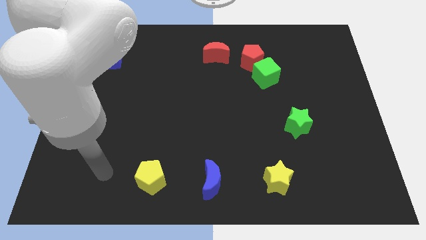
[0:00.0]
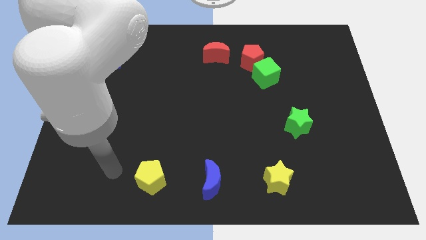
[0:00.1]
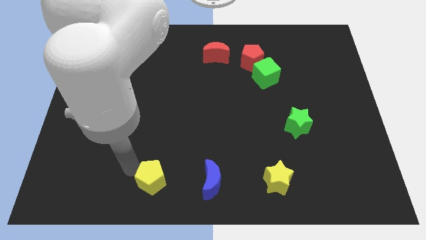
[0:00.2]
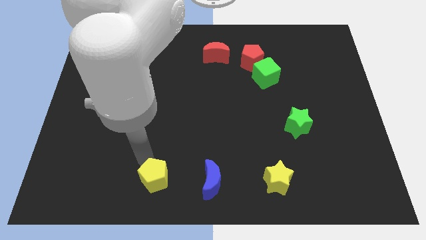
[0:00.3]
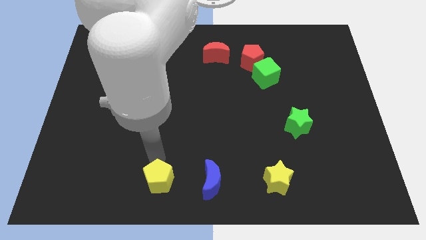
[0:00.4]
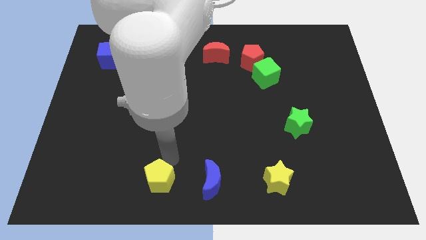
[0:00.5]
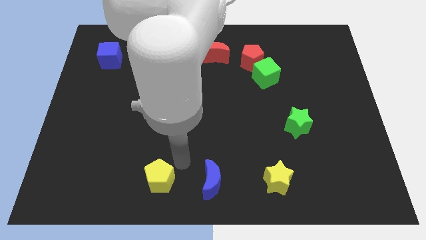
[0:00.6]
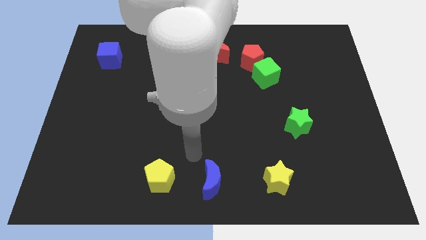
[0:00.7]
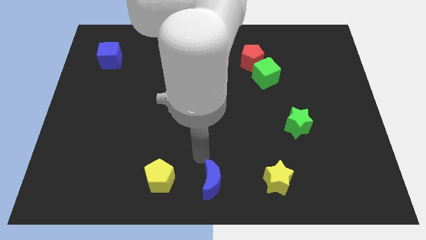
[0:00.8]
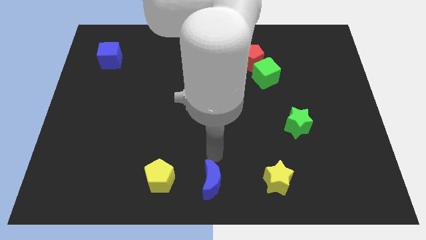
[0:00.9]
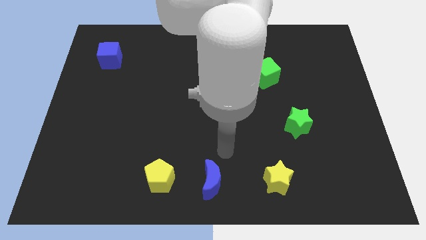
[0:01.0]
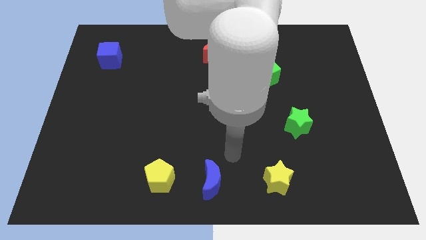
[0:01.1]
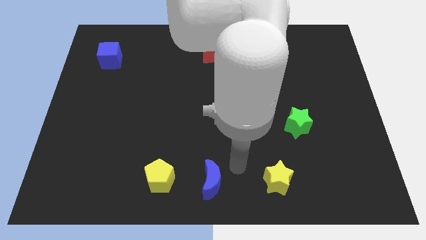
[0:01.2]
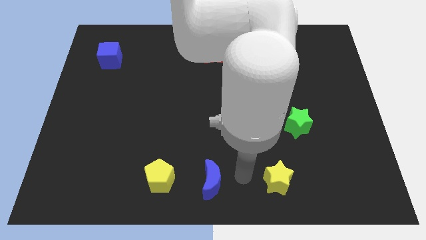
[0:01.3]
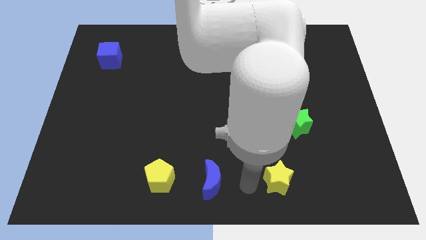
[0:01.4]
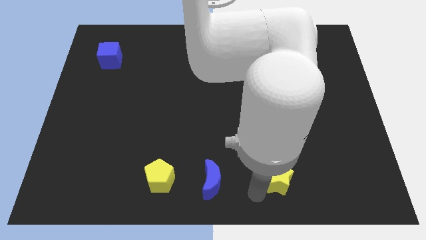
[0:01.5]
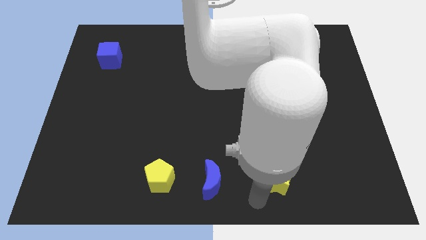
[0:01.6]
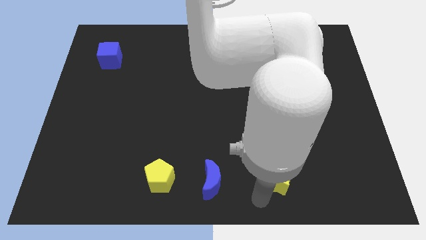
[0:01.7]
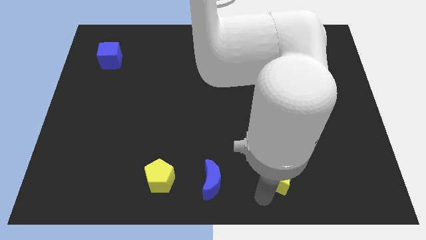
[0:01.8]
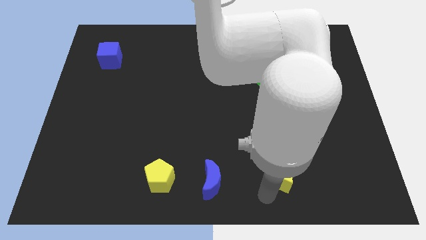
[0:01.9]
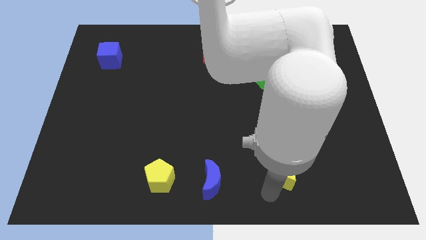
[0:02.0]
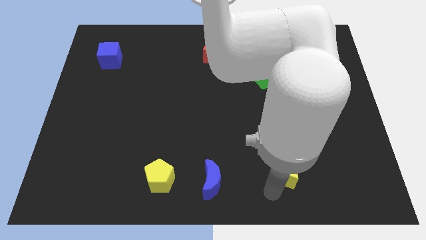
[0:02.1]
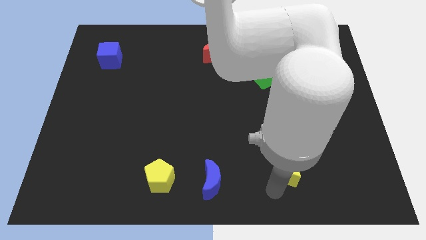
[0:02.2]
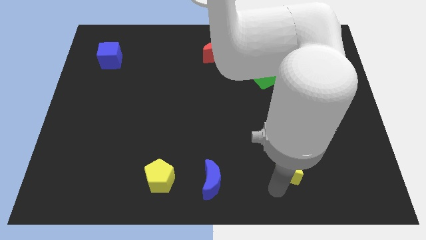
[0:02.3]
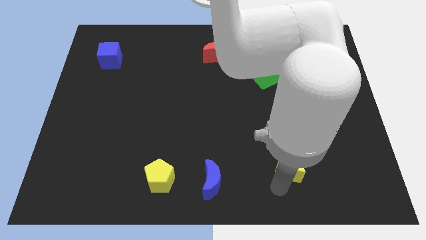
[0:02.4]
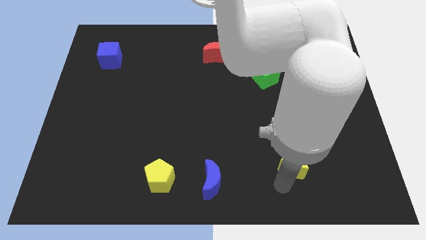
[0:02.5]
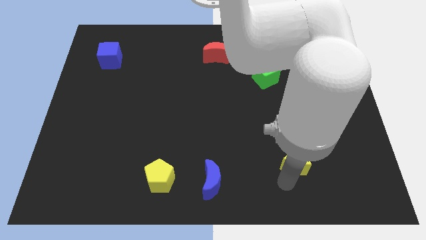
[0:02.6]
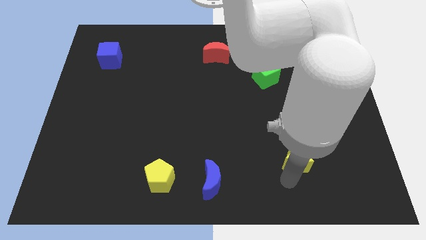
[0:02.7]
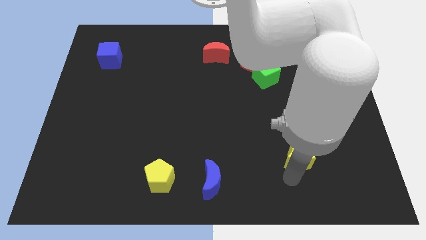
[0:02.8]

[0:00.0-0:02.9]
slightly push the yellow star up and to the right diagonally

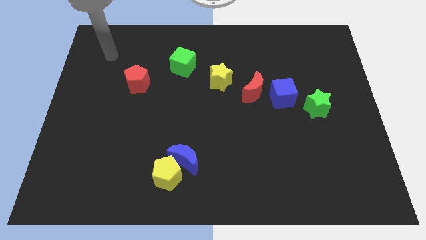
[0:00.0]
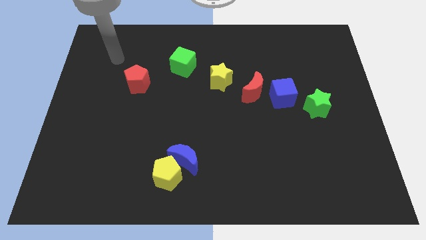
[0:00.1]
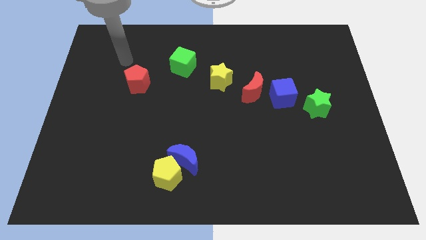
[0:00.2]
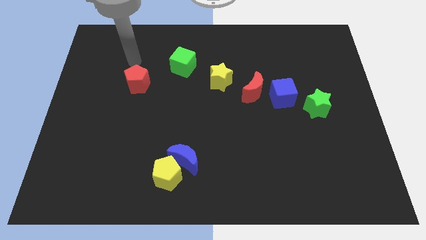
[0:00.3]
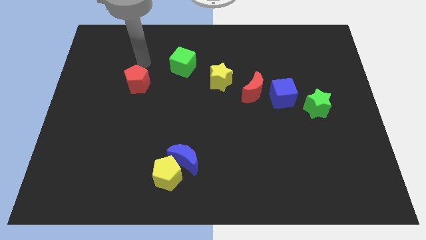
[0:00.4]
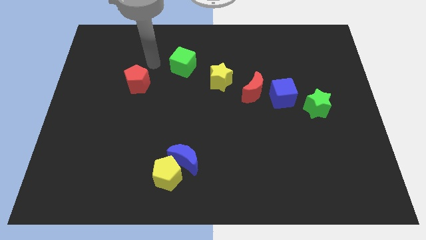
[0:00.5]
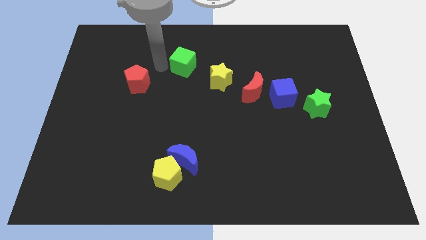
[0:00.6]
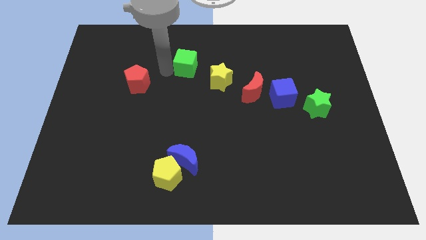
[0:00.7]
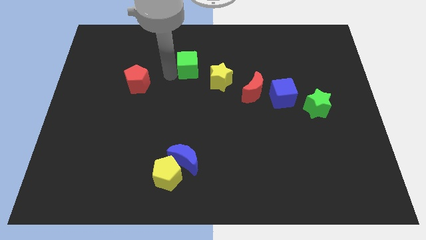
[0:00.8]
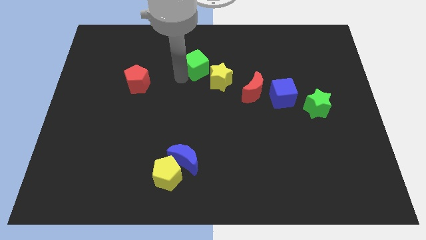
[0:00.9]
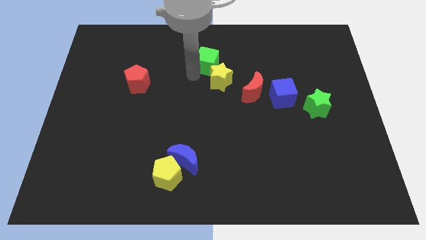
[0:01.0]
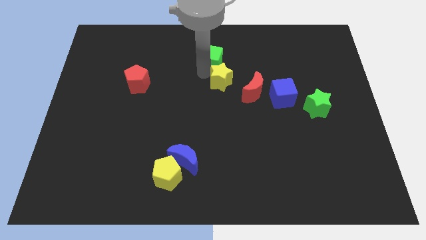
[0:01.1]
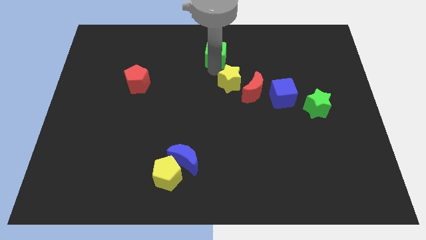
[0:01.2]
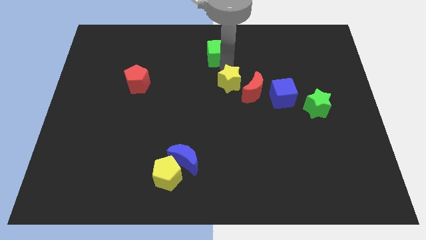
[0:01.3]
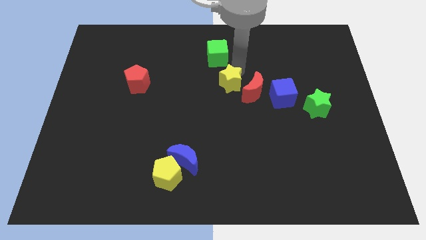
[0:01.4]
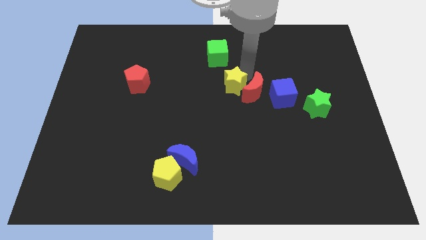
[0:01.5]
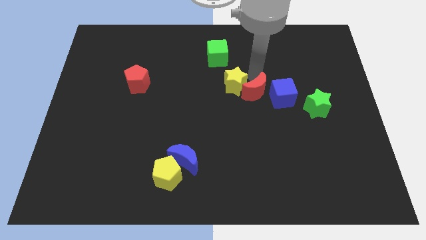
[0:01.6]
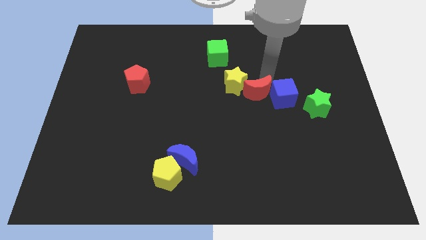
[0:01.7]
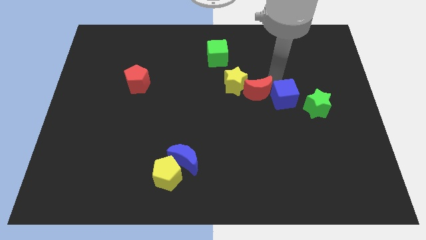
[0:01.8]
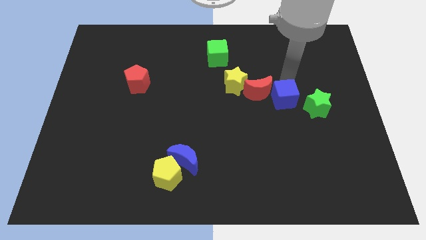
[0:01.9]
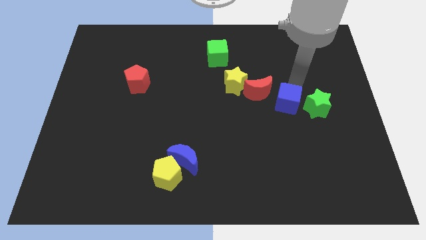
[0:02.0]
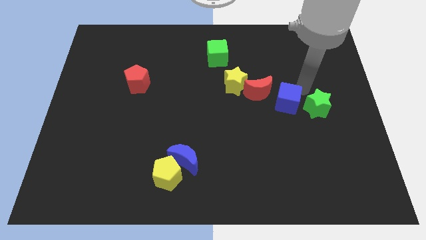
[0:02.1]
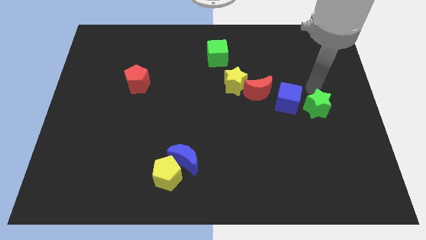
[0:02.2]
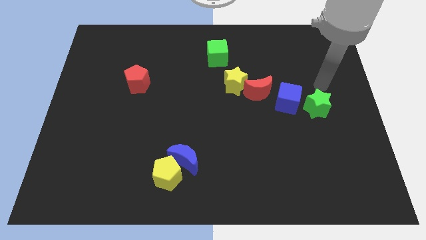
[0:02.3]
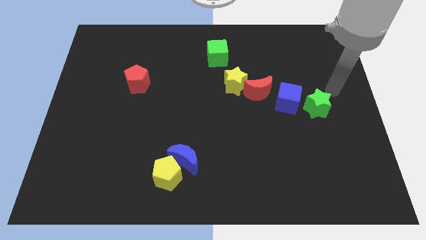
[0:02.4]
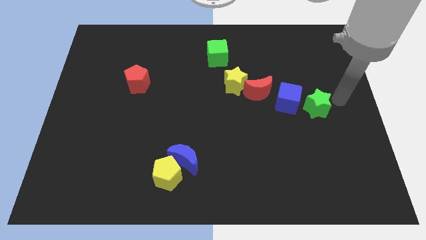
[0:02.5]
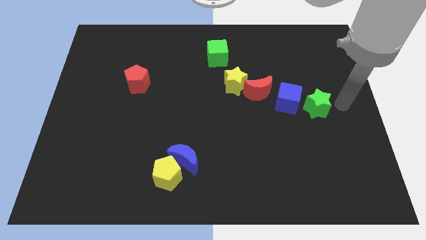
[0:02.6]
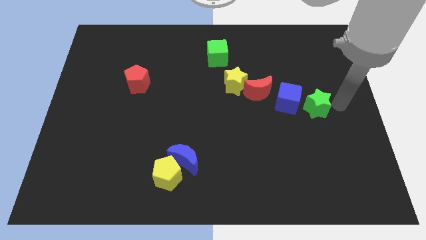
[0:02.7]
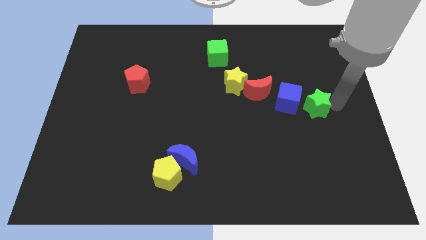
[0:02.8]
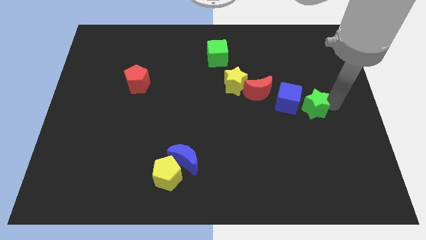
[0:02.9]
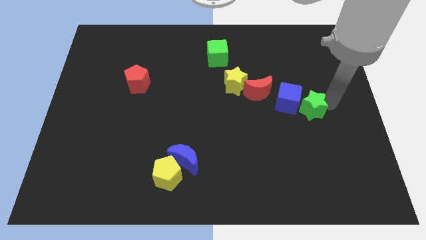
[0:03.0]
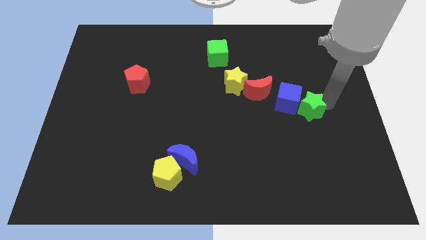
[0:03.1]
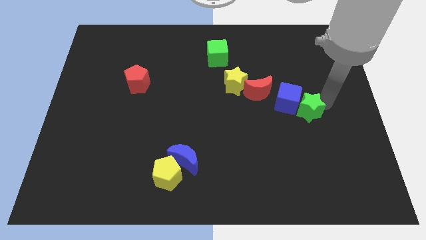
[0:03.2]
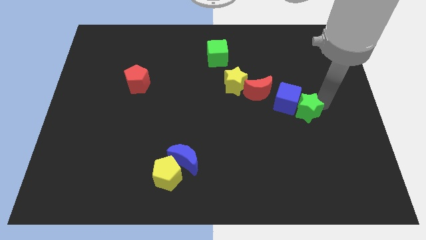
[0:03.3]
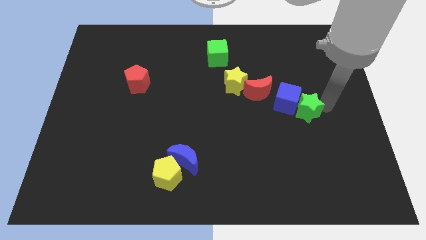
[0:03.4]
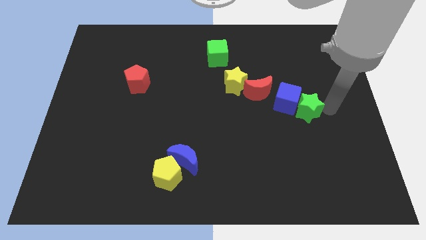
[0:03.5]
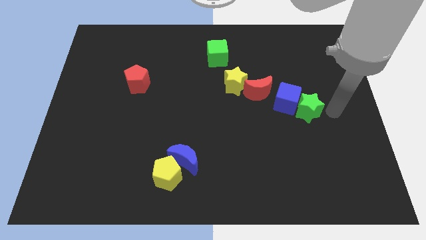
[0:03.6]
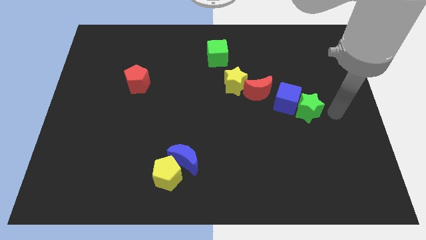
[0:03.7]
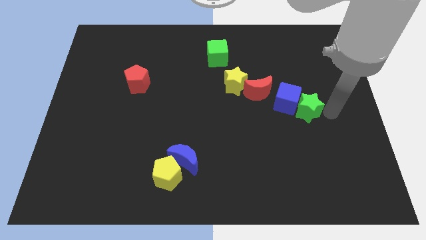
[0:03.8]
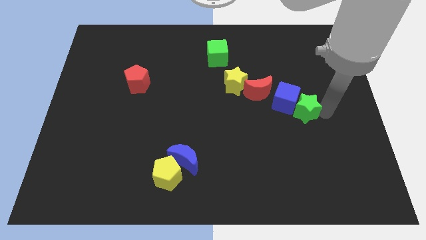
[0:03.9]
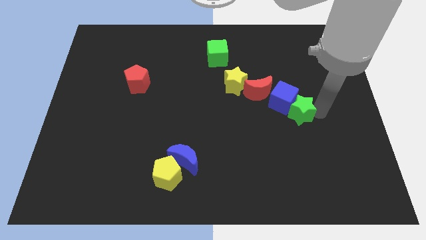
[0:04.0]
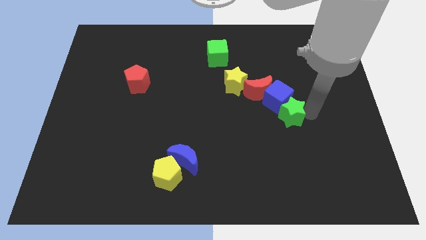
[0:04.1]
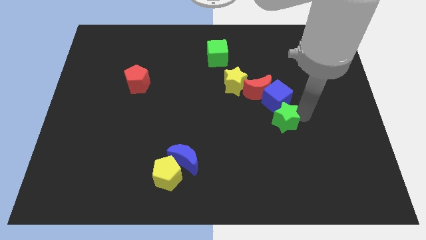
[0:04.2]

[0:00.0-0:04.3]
push the green star left a little

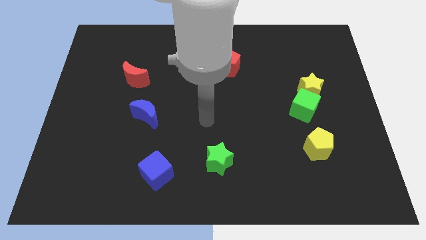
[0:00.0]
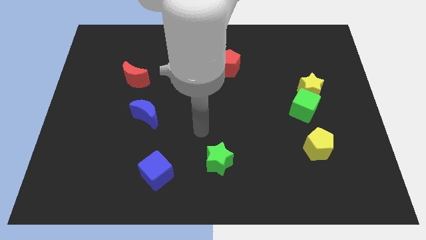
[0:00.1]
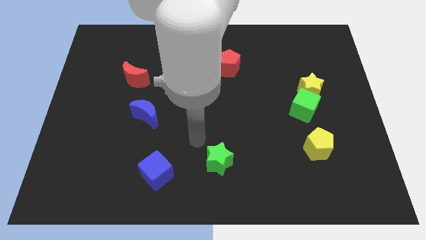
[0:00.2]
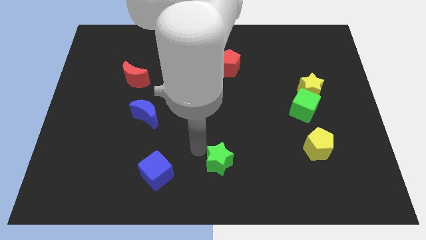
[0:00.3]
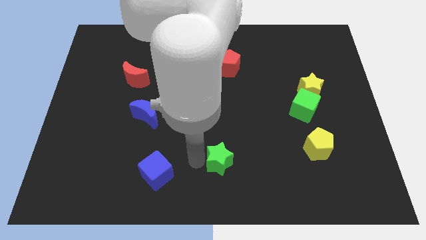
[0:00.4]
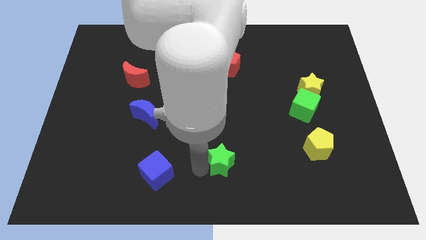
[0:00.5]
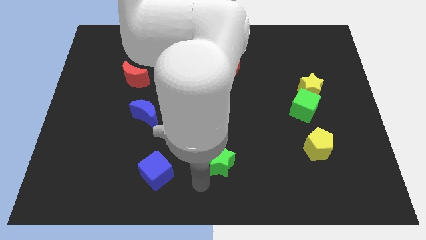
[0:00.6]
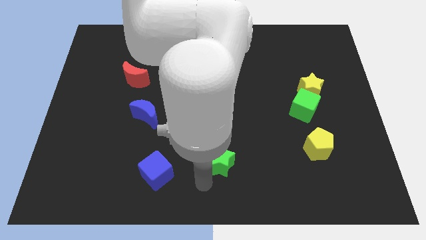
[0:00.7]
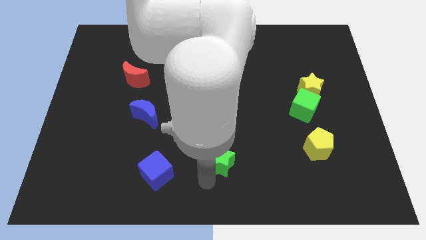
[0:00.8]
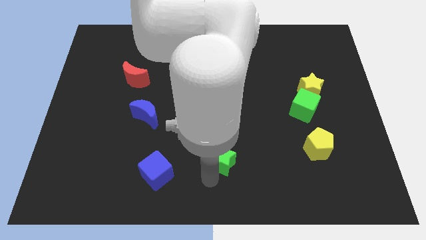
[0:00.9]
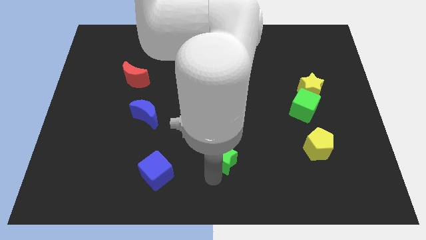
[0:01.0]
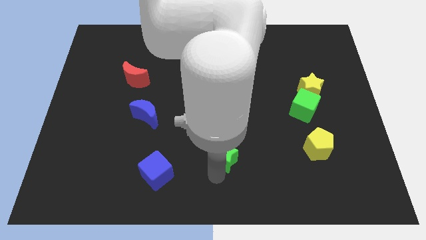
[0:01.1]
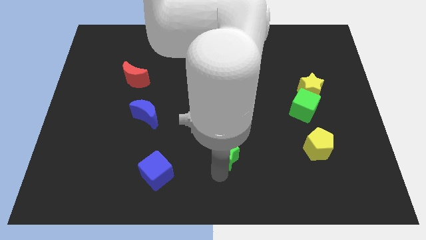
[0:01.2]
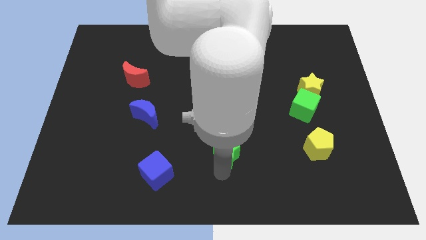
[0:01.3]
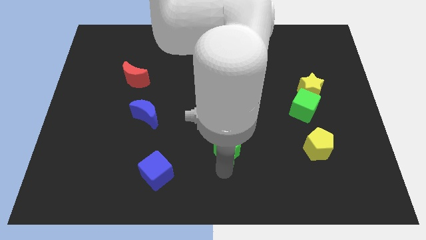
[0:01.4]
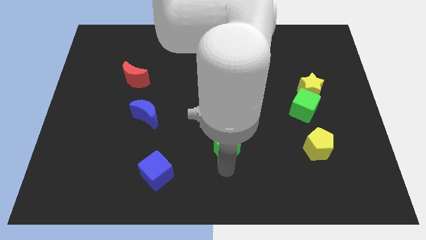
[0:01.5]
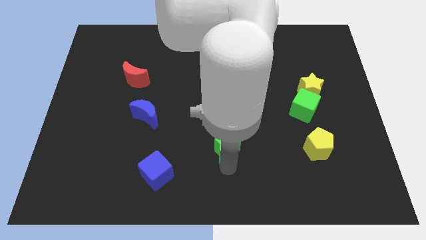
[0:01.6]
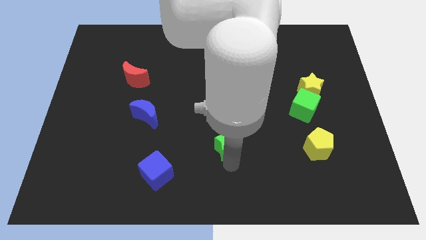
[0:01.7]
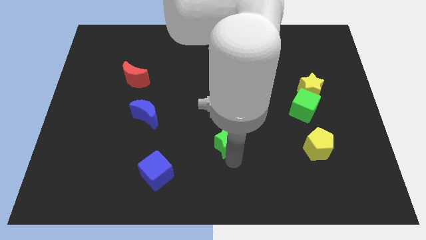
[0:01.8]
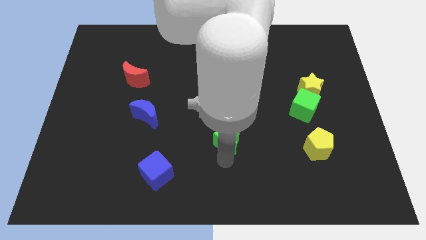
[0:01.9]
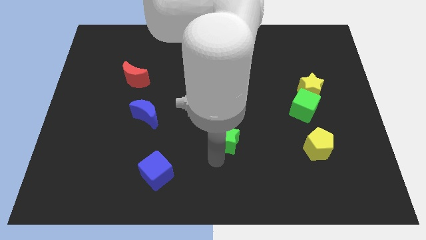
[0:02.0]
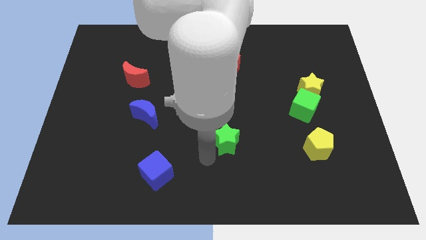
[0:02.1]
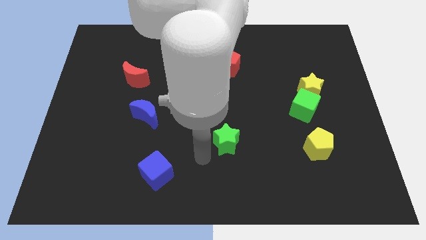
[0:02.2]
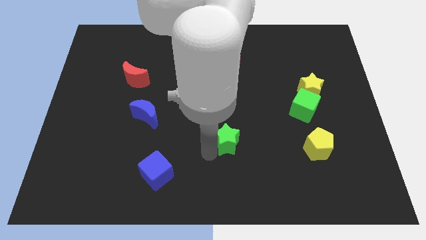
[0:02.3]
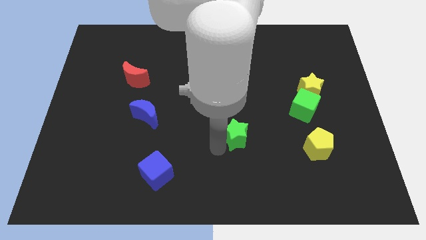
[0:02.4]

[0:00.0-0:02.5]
move the green star upwards and then right slightly
